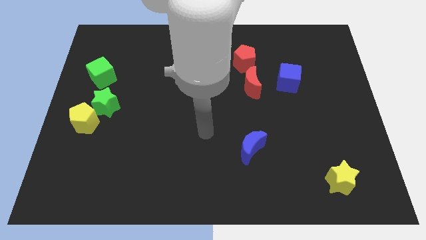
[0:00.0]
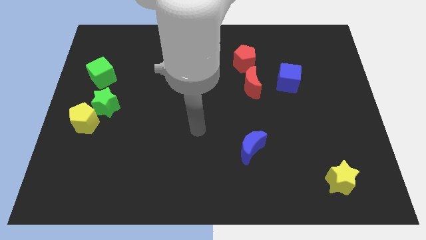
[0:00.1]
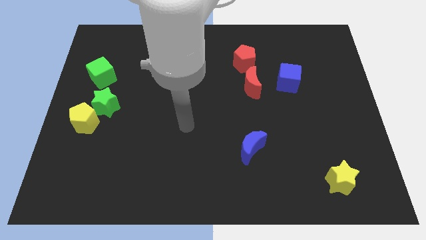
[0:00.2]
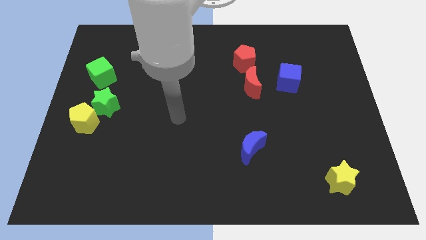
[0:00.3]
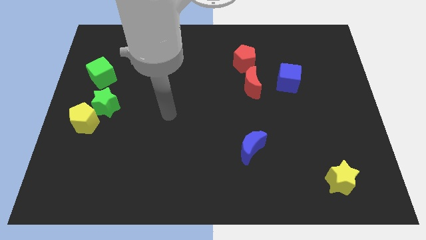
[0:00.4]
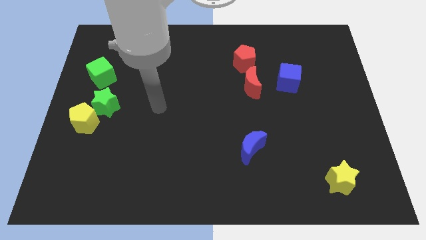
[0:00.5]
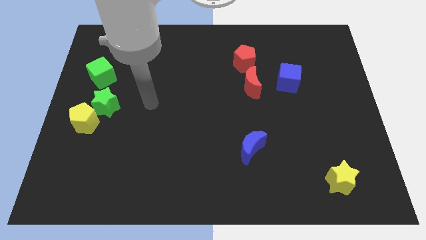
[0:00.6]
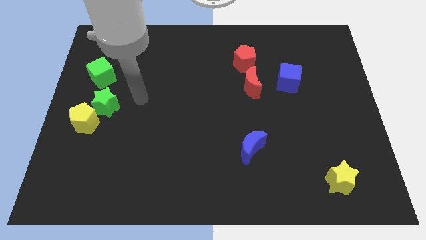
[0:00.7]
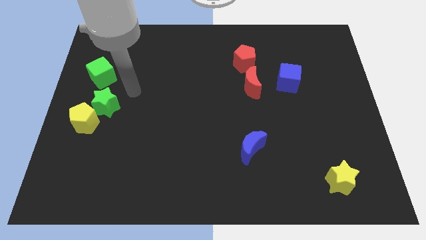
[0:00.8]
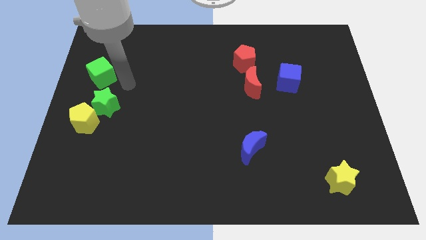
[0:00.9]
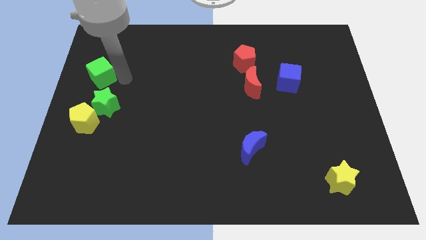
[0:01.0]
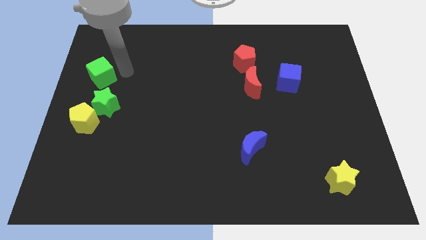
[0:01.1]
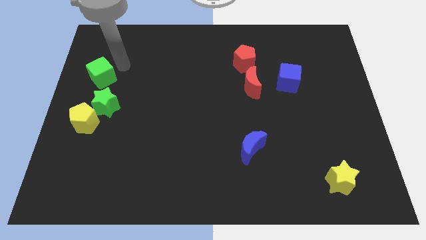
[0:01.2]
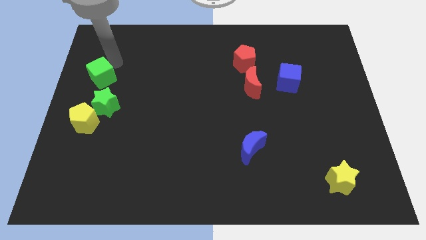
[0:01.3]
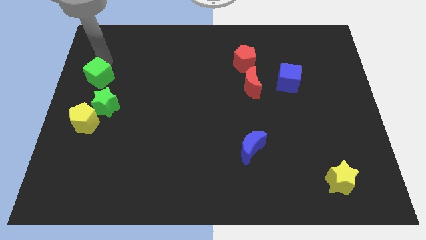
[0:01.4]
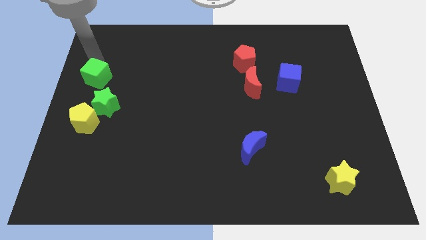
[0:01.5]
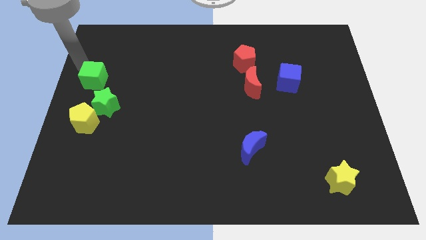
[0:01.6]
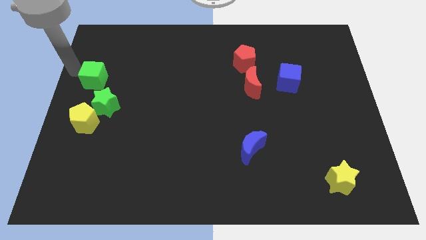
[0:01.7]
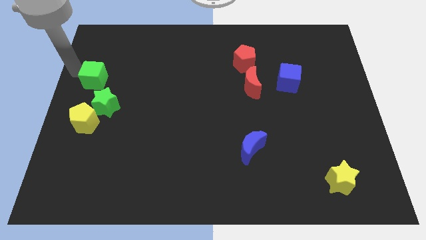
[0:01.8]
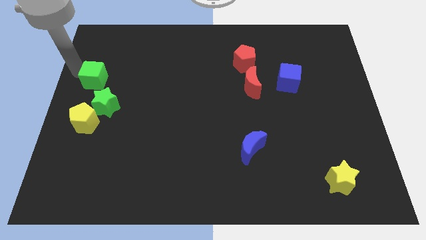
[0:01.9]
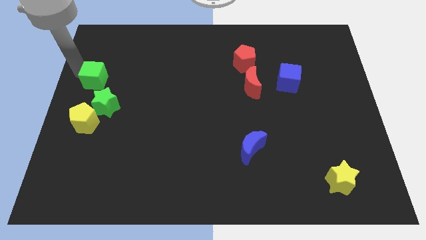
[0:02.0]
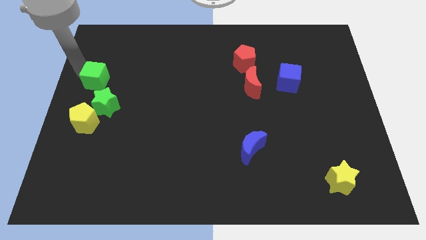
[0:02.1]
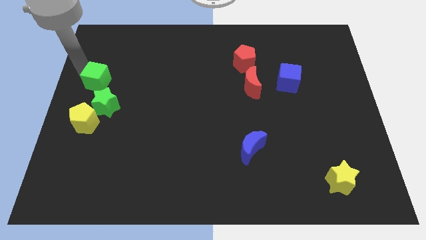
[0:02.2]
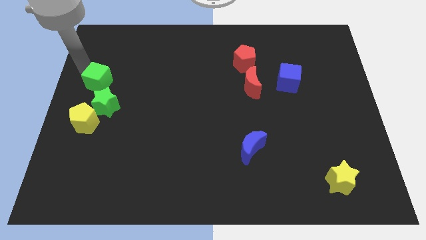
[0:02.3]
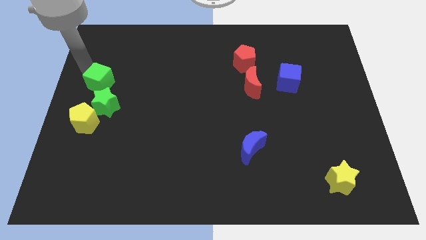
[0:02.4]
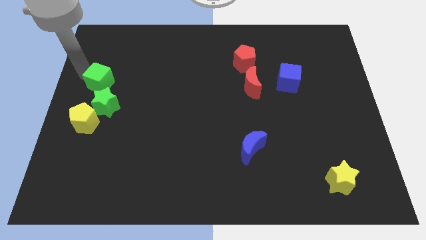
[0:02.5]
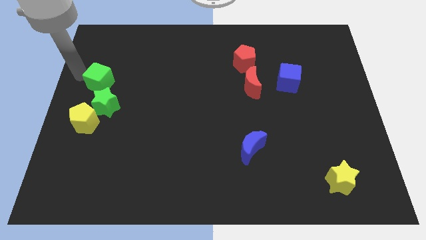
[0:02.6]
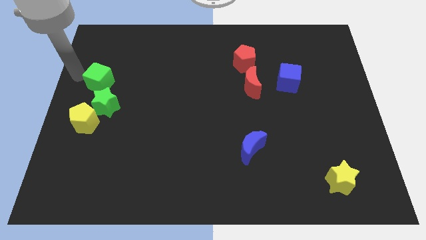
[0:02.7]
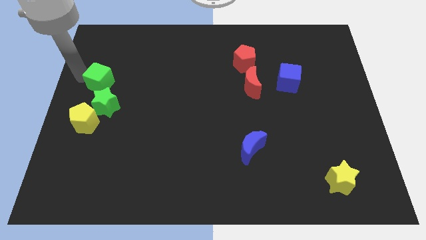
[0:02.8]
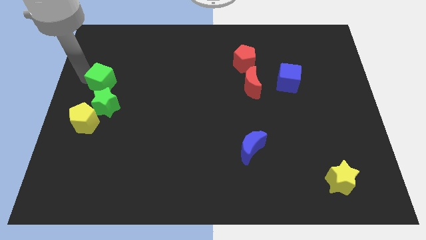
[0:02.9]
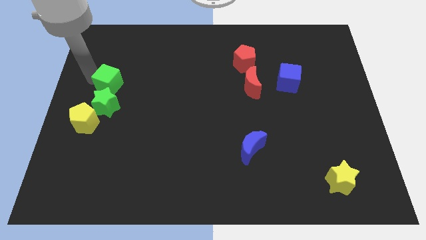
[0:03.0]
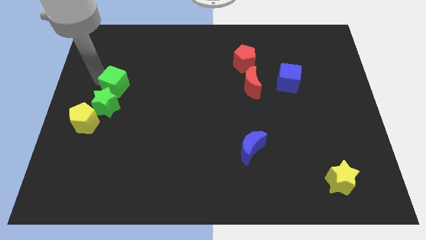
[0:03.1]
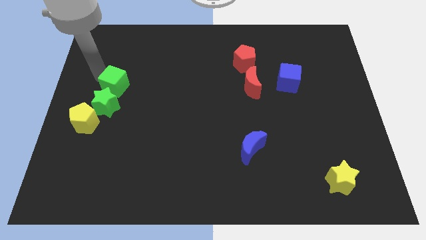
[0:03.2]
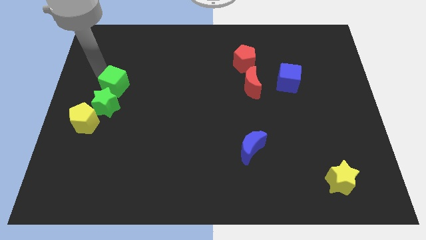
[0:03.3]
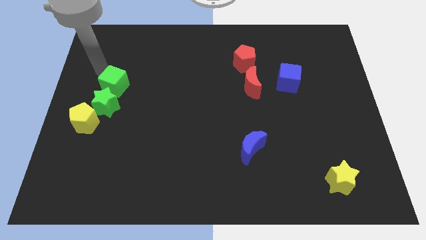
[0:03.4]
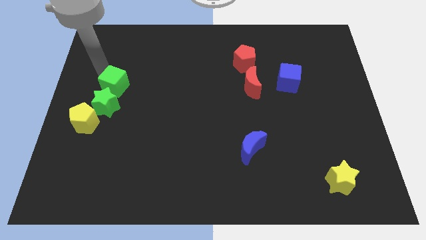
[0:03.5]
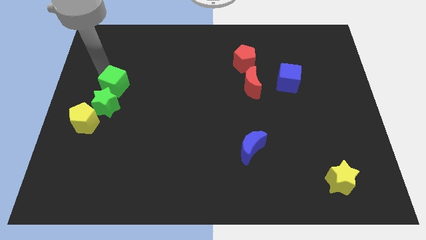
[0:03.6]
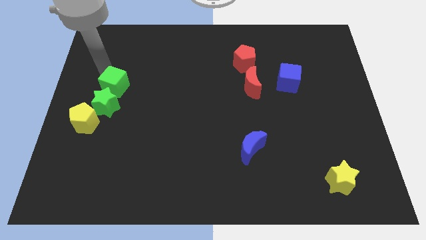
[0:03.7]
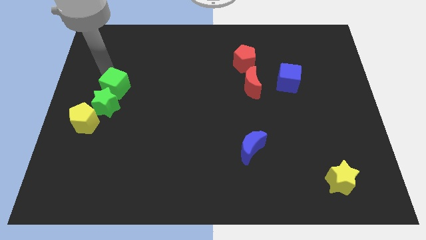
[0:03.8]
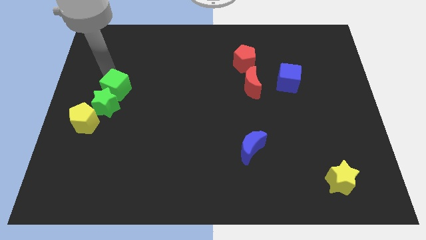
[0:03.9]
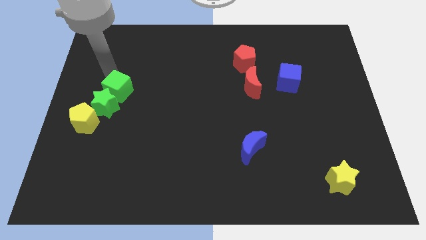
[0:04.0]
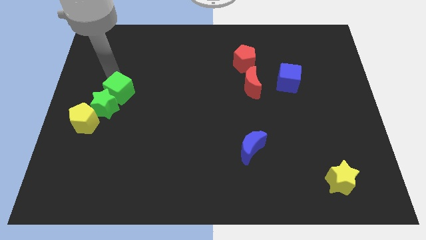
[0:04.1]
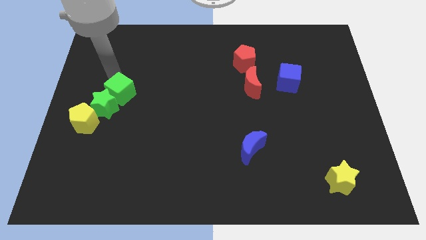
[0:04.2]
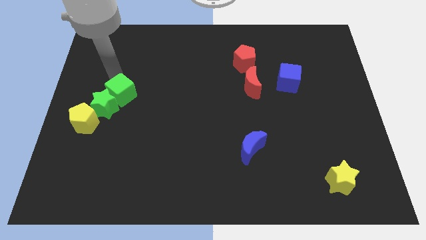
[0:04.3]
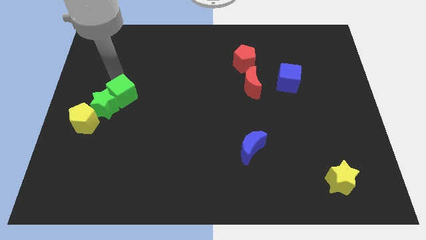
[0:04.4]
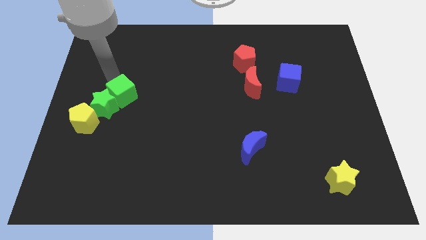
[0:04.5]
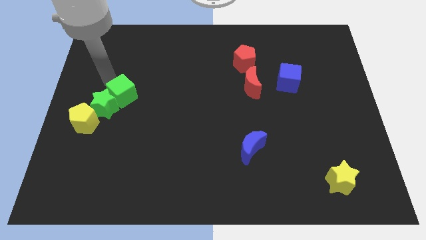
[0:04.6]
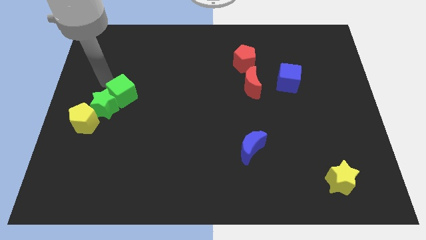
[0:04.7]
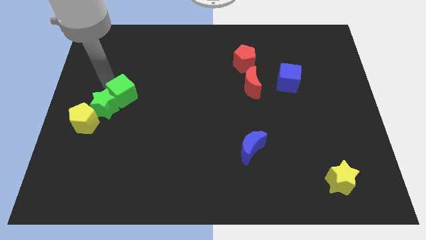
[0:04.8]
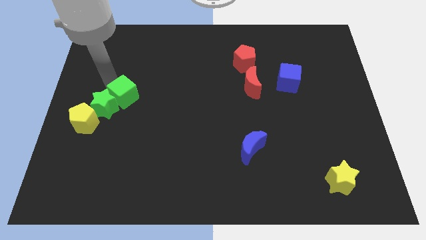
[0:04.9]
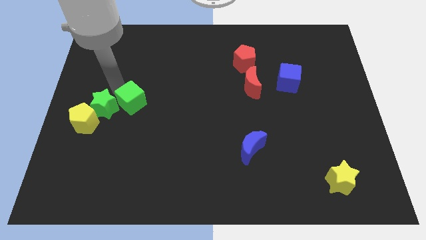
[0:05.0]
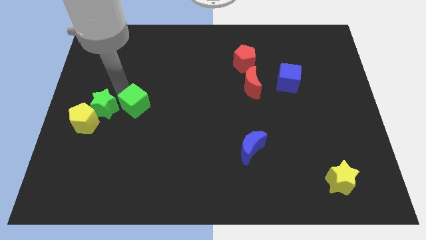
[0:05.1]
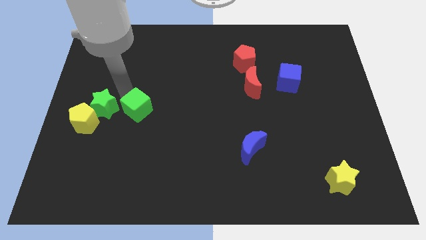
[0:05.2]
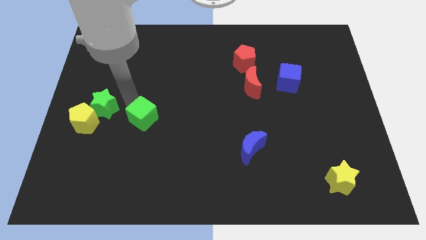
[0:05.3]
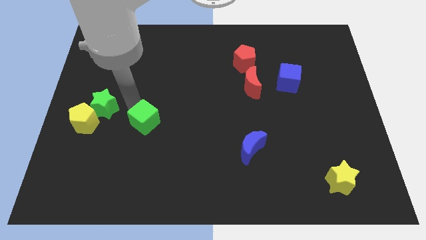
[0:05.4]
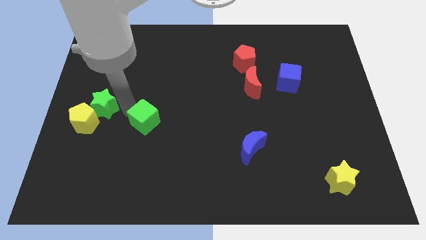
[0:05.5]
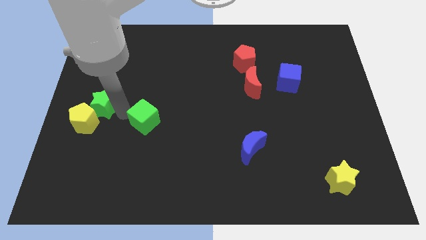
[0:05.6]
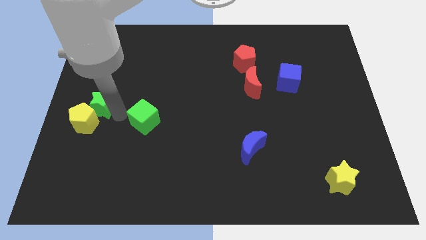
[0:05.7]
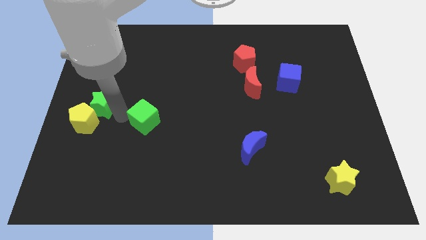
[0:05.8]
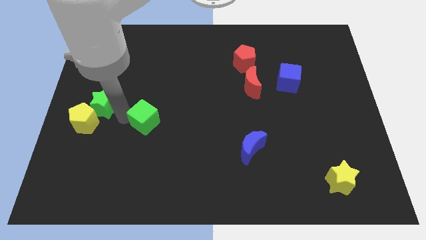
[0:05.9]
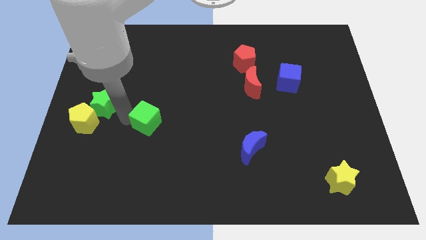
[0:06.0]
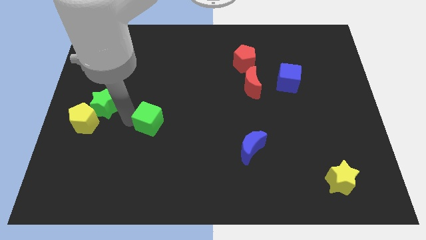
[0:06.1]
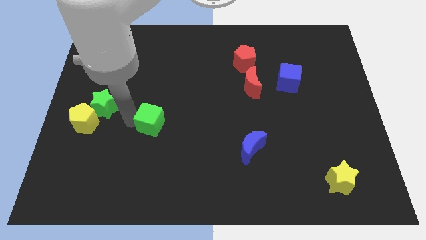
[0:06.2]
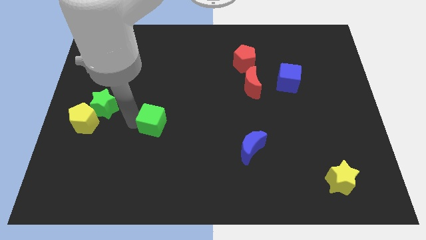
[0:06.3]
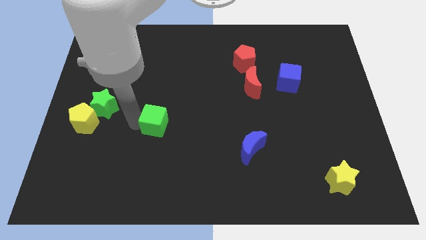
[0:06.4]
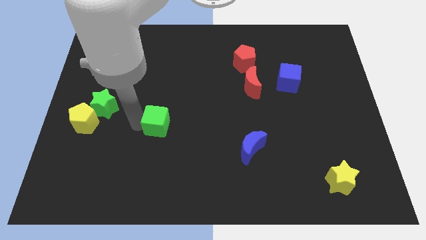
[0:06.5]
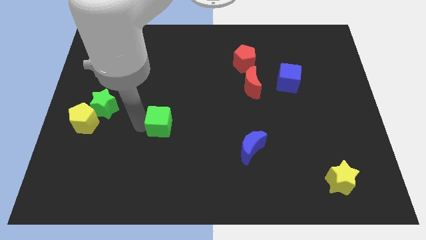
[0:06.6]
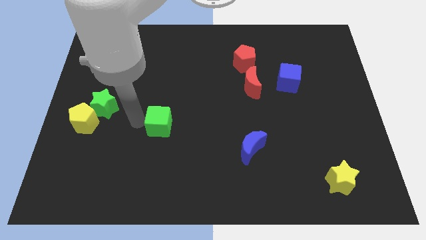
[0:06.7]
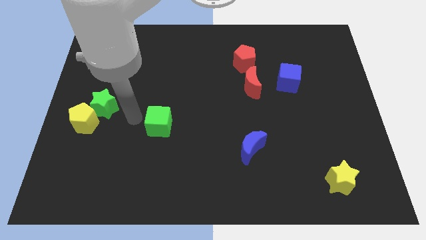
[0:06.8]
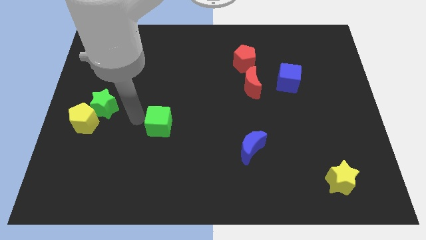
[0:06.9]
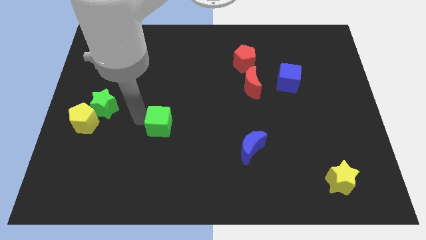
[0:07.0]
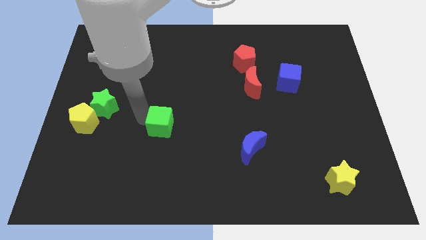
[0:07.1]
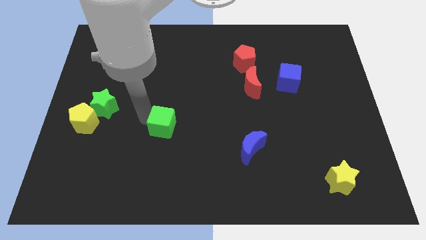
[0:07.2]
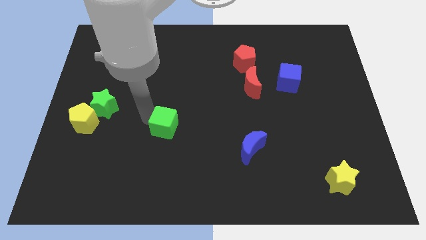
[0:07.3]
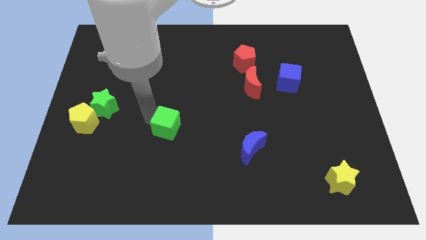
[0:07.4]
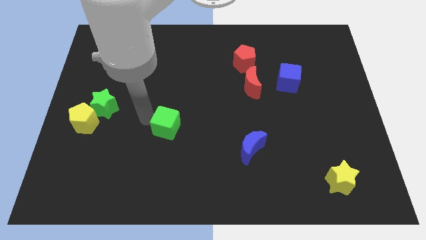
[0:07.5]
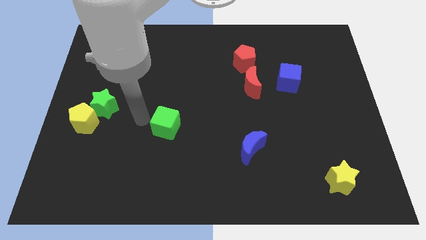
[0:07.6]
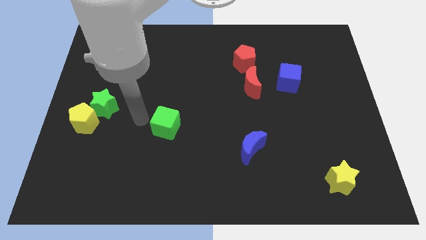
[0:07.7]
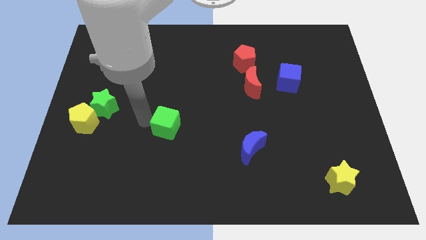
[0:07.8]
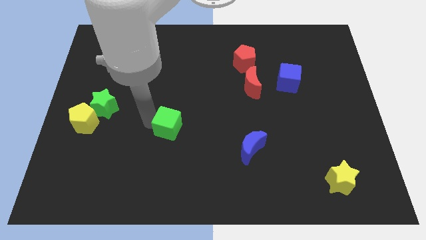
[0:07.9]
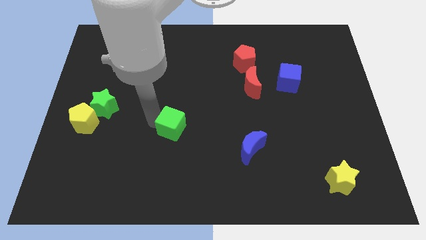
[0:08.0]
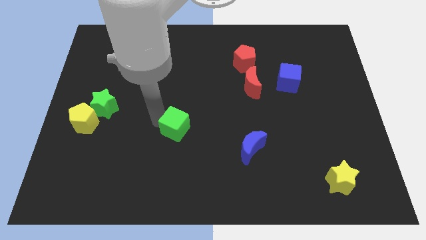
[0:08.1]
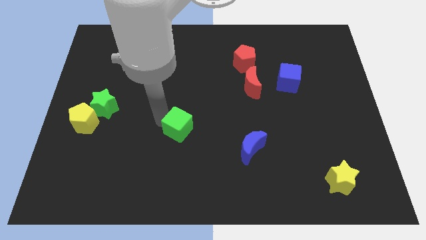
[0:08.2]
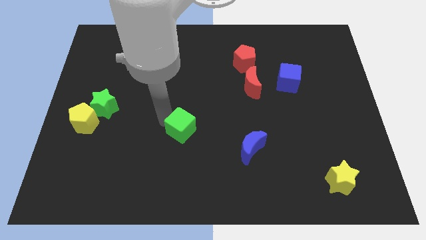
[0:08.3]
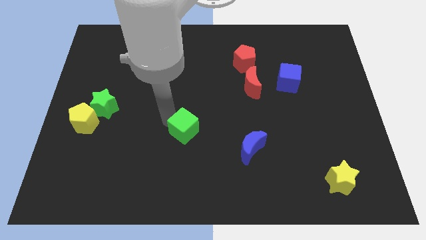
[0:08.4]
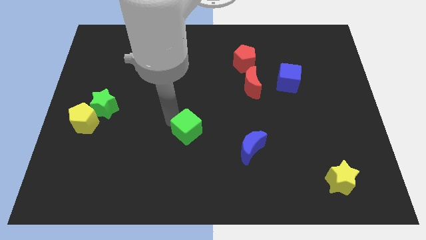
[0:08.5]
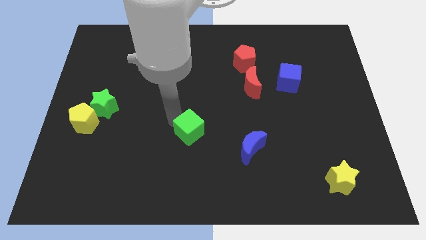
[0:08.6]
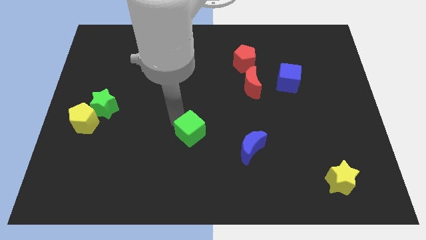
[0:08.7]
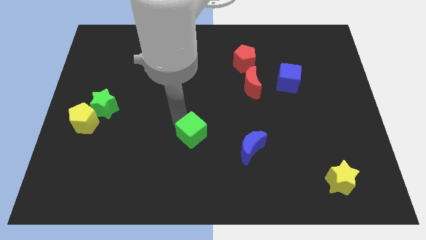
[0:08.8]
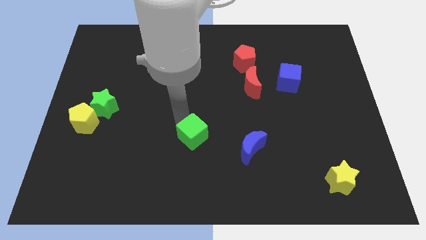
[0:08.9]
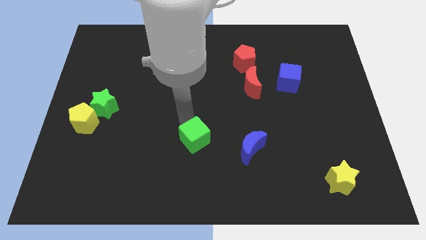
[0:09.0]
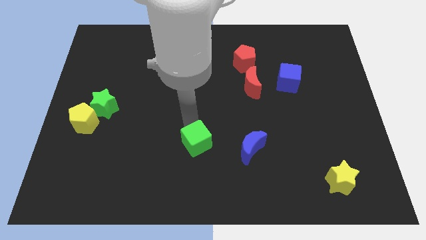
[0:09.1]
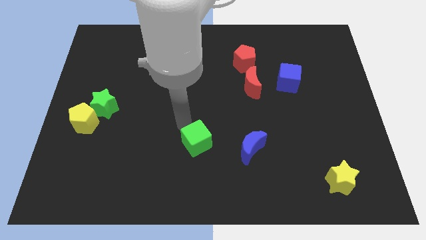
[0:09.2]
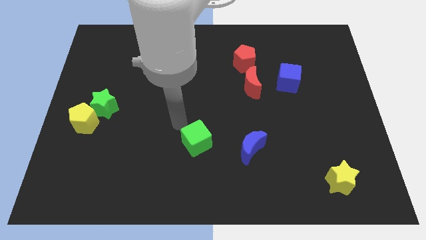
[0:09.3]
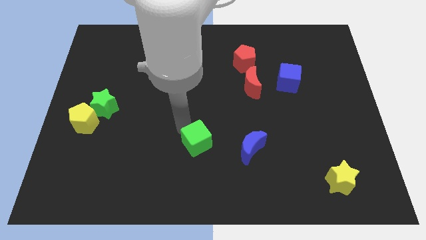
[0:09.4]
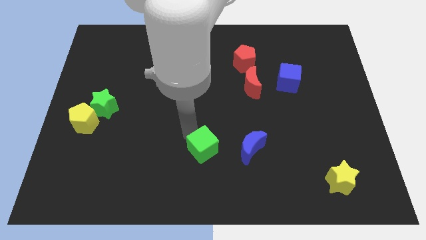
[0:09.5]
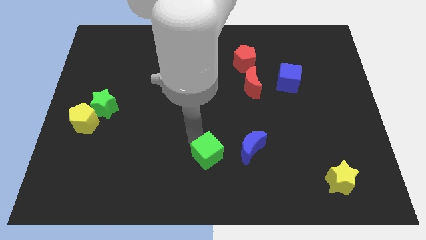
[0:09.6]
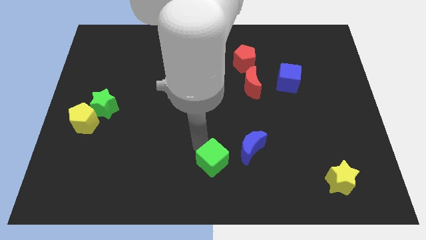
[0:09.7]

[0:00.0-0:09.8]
move the green cube to the bottom left of the blue moon
